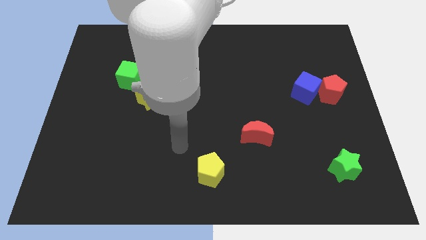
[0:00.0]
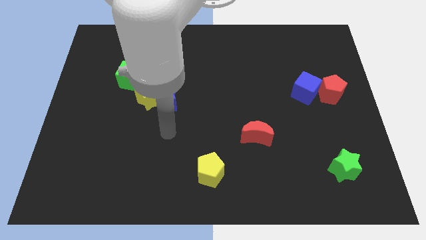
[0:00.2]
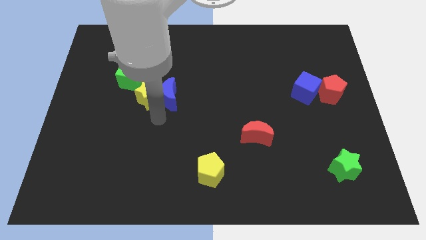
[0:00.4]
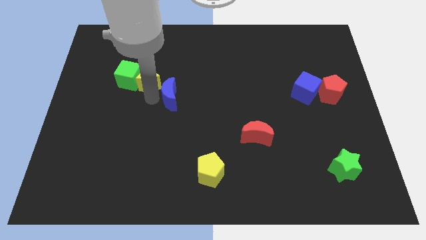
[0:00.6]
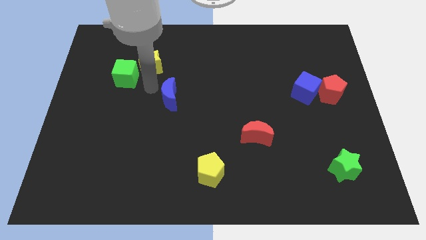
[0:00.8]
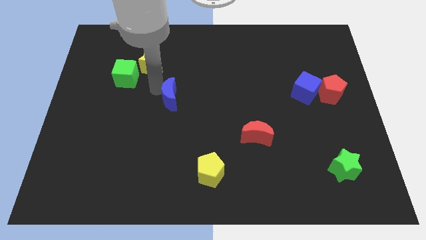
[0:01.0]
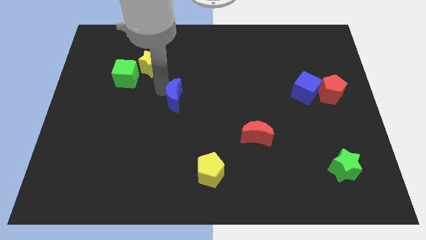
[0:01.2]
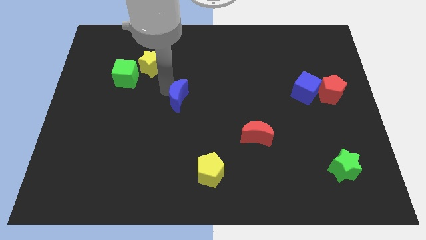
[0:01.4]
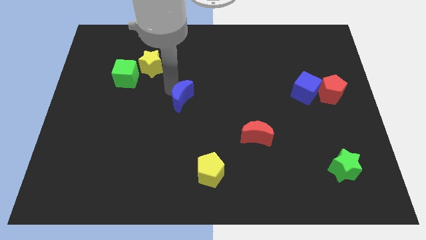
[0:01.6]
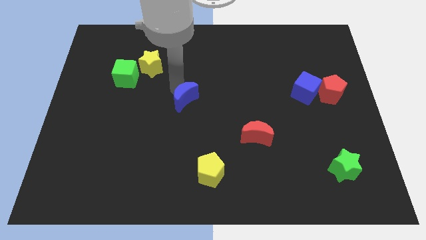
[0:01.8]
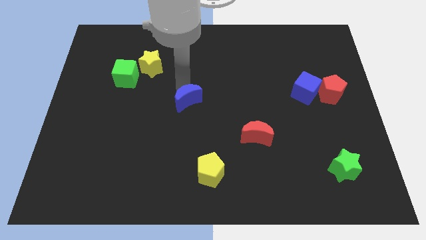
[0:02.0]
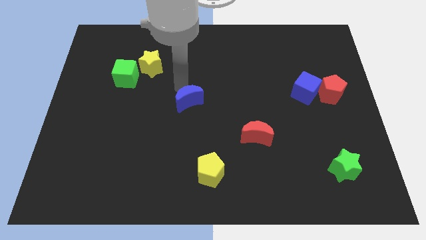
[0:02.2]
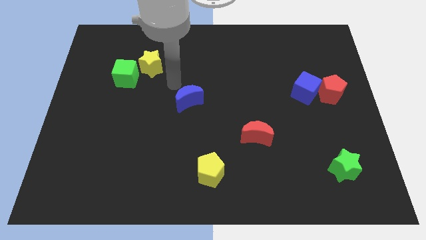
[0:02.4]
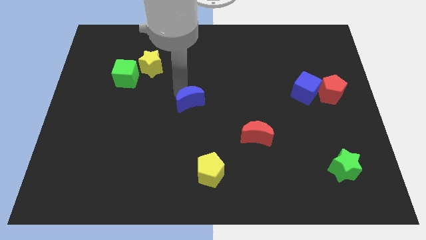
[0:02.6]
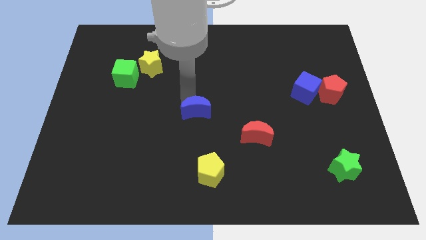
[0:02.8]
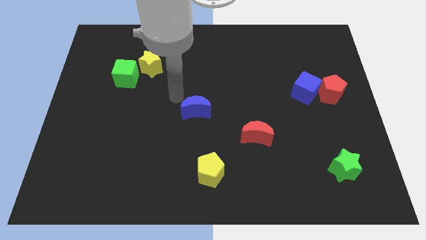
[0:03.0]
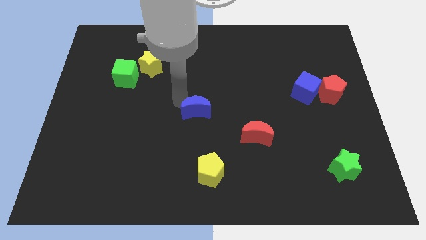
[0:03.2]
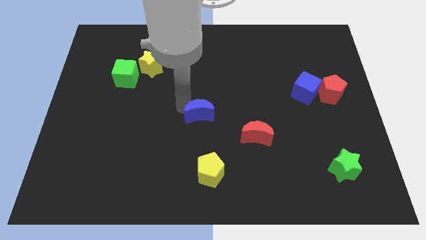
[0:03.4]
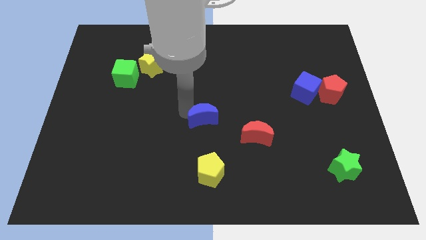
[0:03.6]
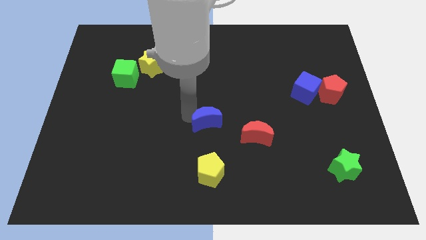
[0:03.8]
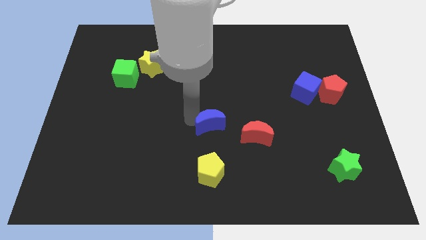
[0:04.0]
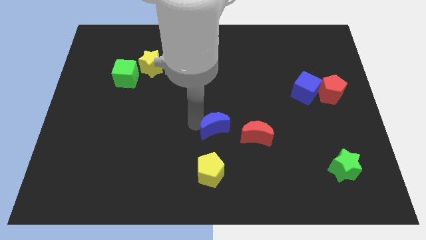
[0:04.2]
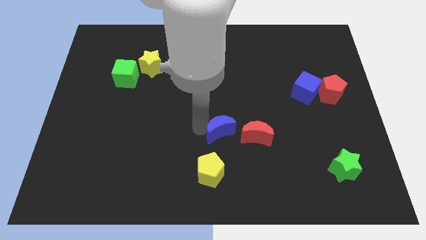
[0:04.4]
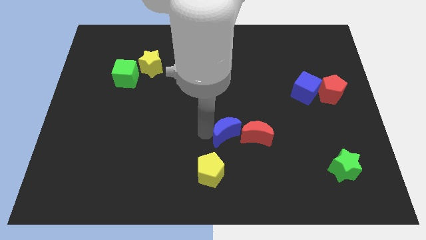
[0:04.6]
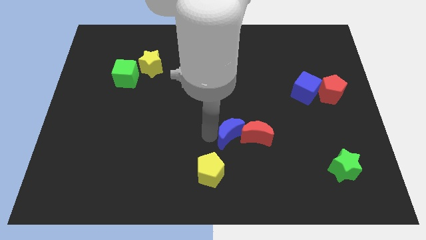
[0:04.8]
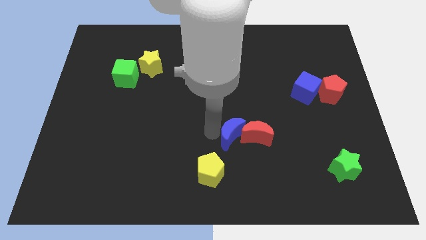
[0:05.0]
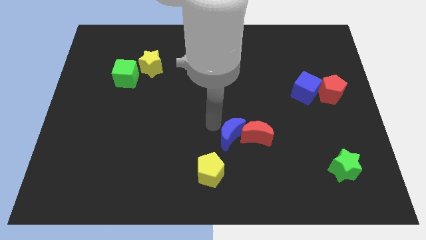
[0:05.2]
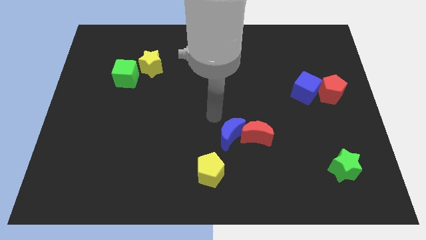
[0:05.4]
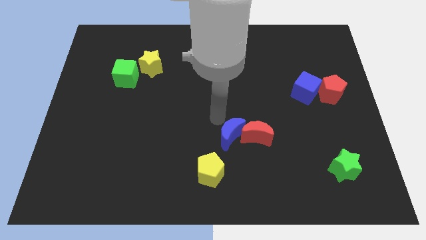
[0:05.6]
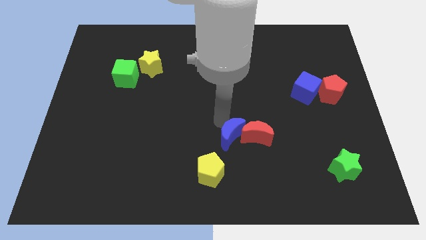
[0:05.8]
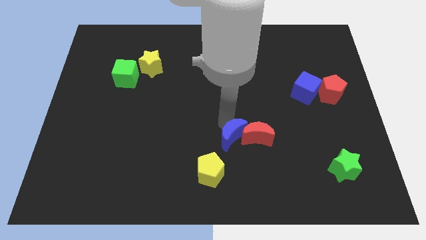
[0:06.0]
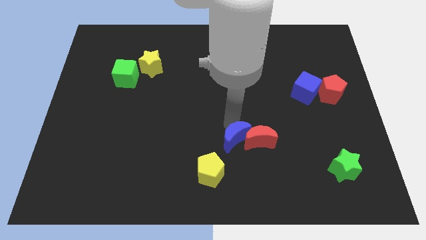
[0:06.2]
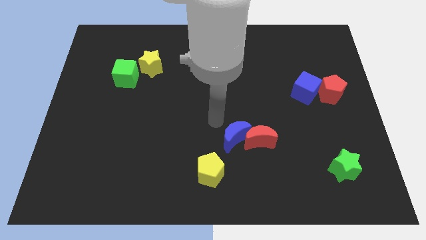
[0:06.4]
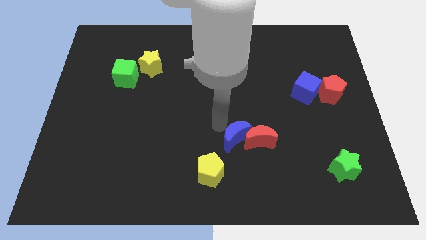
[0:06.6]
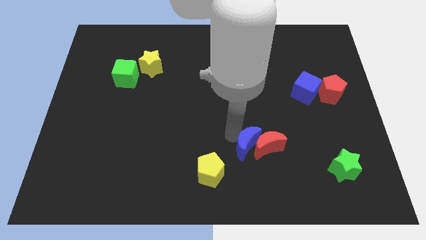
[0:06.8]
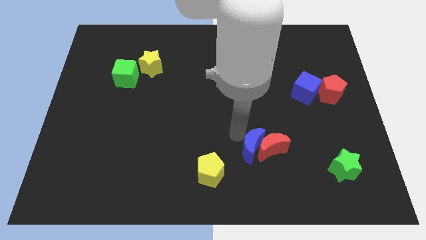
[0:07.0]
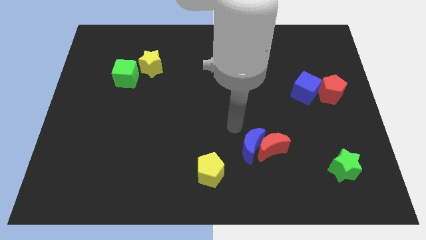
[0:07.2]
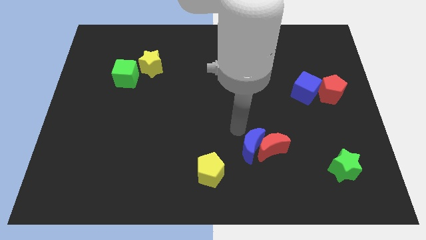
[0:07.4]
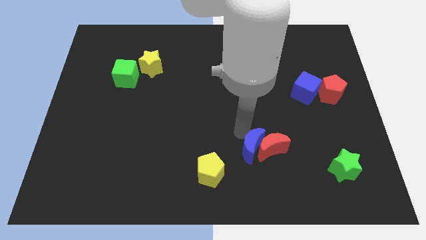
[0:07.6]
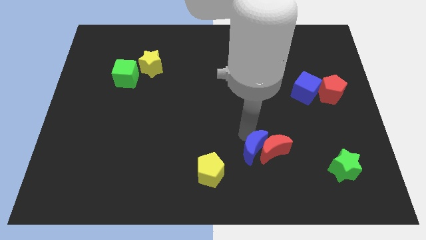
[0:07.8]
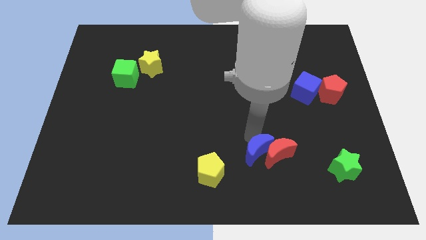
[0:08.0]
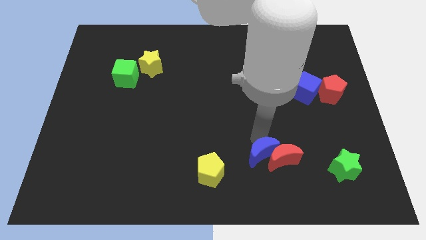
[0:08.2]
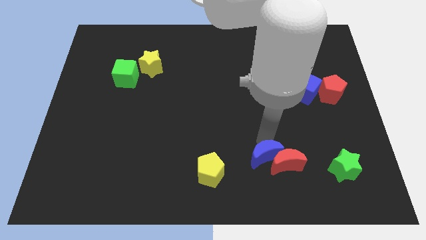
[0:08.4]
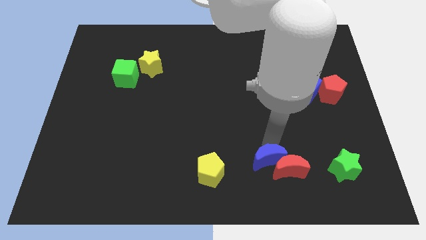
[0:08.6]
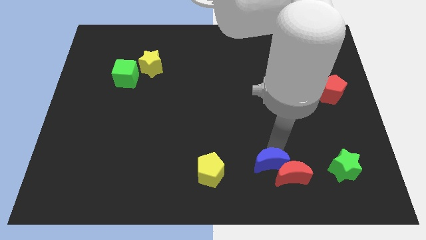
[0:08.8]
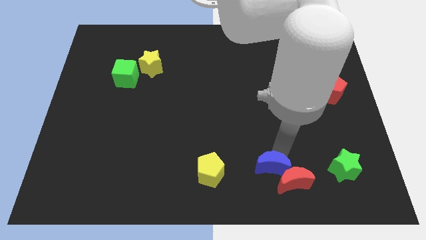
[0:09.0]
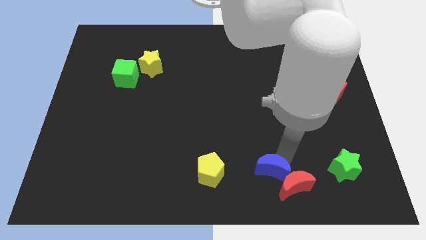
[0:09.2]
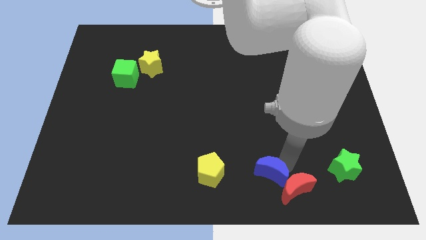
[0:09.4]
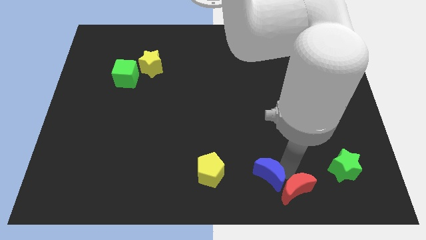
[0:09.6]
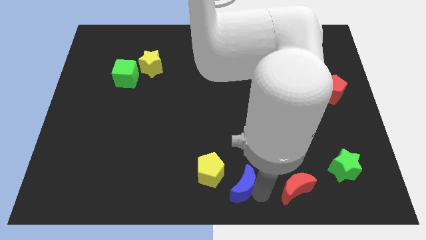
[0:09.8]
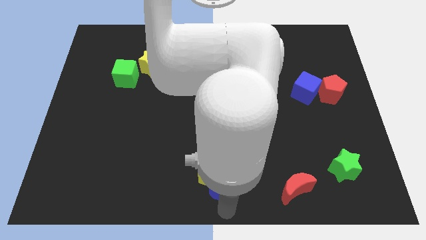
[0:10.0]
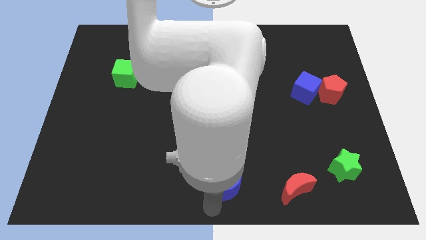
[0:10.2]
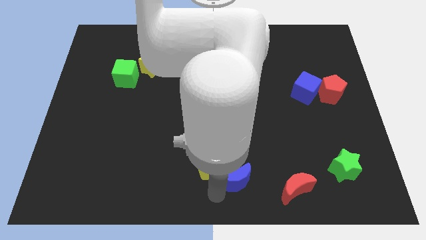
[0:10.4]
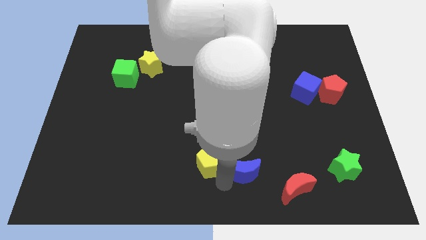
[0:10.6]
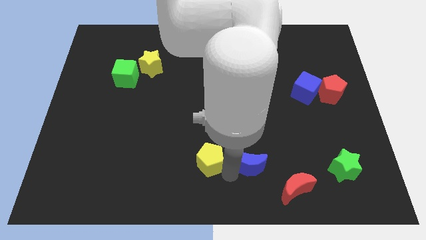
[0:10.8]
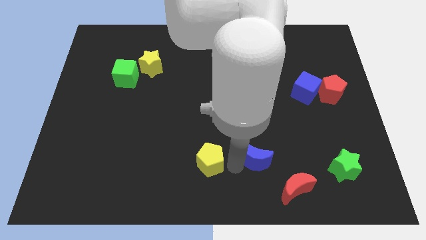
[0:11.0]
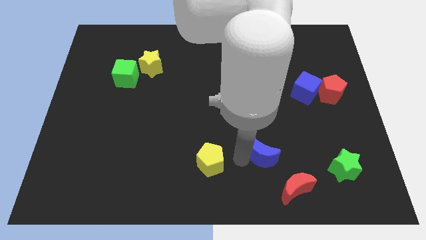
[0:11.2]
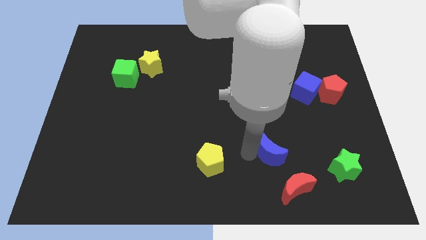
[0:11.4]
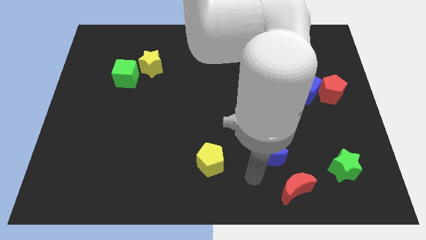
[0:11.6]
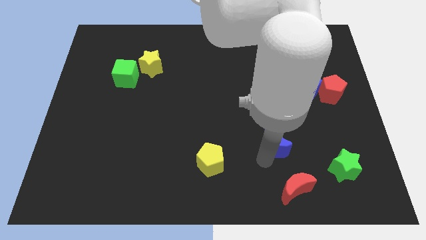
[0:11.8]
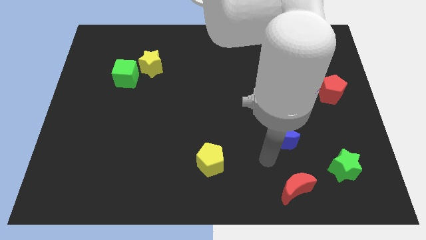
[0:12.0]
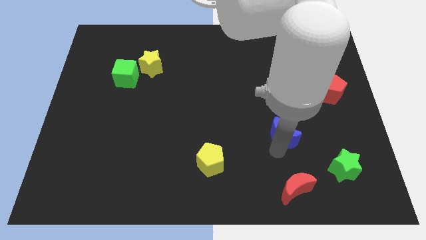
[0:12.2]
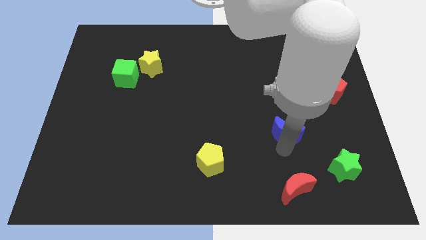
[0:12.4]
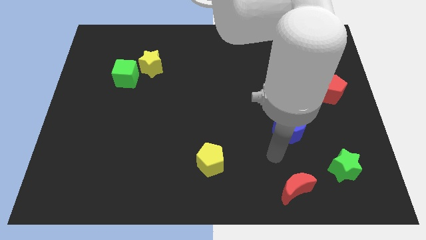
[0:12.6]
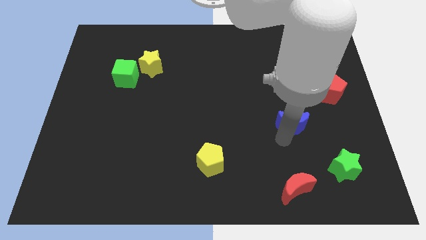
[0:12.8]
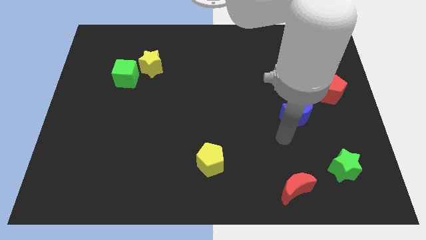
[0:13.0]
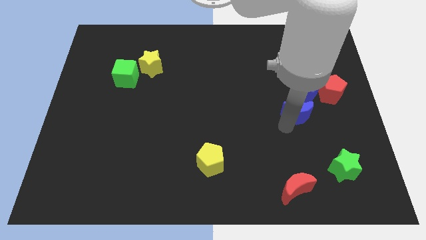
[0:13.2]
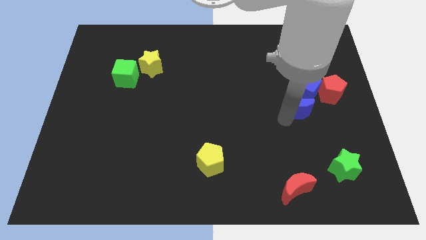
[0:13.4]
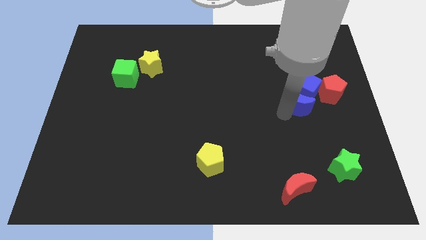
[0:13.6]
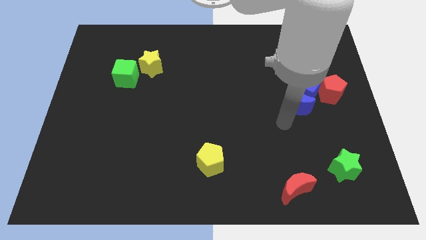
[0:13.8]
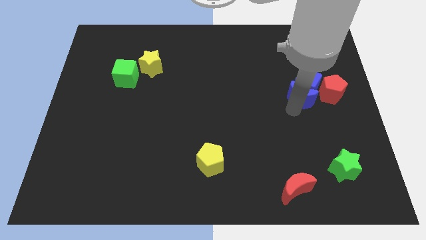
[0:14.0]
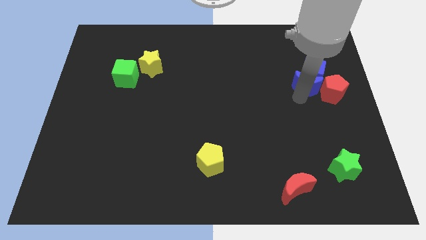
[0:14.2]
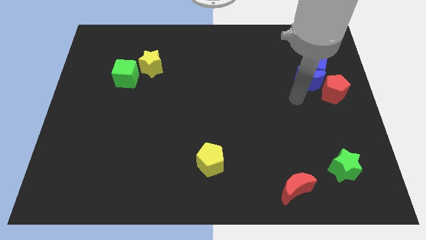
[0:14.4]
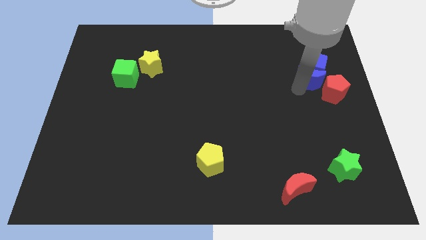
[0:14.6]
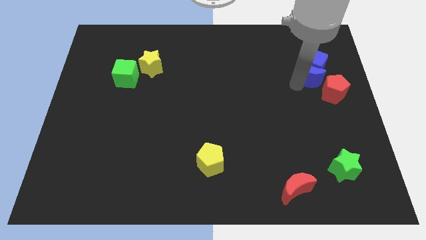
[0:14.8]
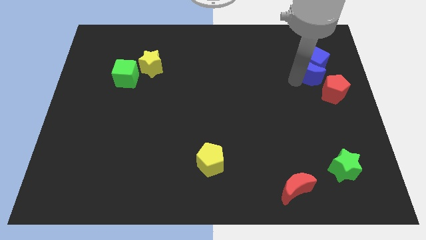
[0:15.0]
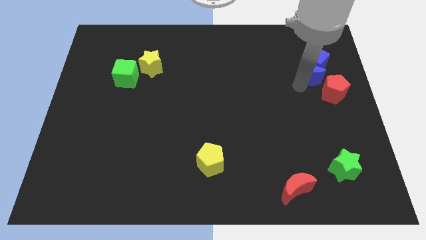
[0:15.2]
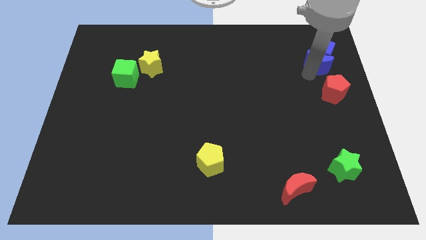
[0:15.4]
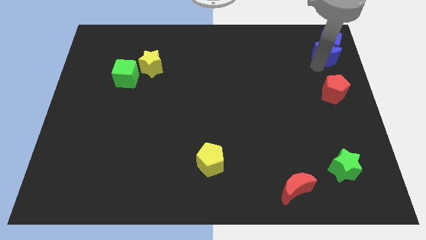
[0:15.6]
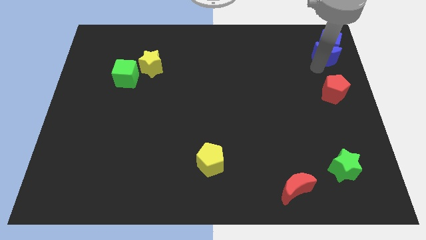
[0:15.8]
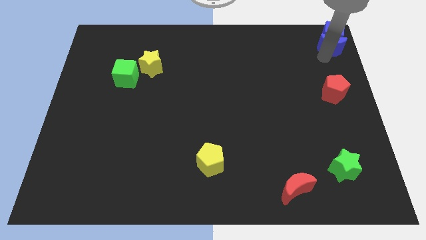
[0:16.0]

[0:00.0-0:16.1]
move the blue moon to the top right
